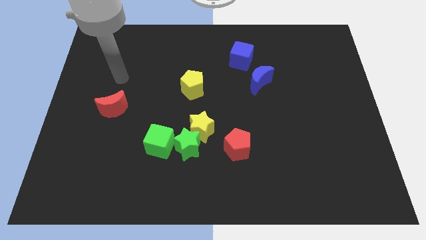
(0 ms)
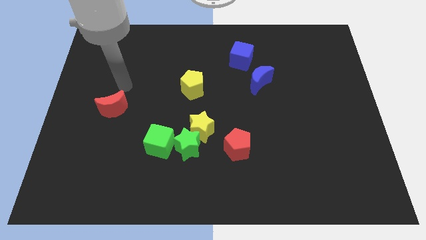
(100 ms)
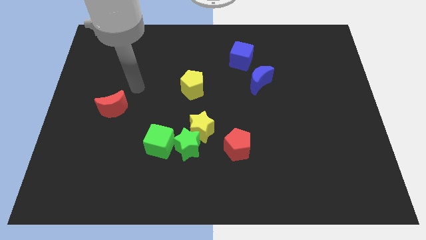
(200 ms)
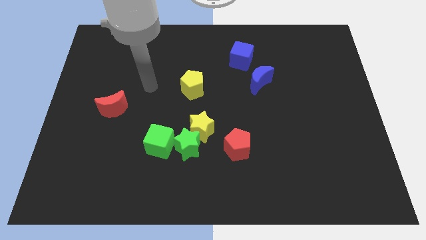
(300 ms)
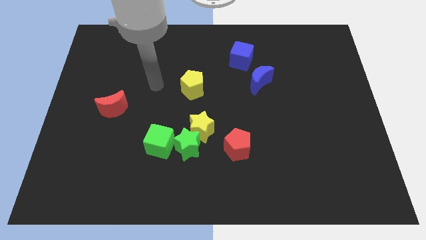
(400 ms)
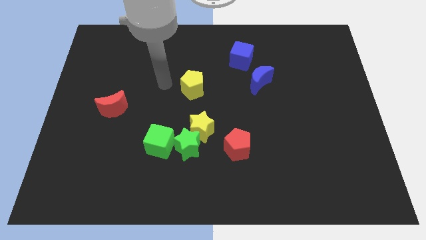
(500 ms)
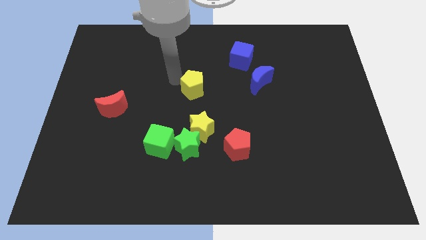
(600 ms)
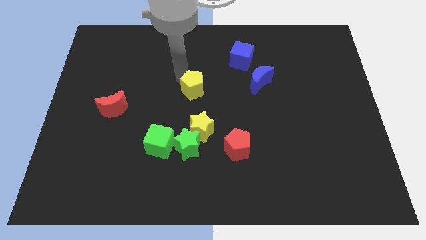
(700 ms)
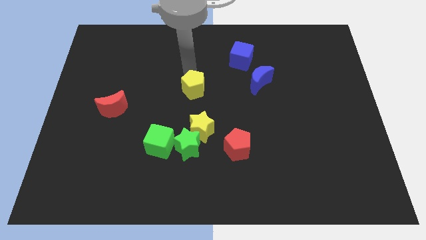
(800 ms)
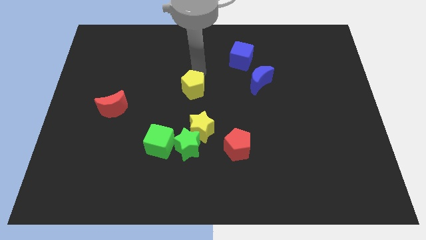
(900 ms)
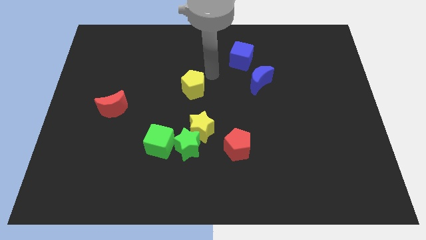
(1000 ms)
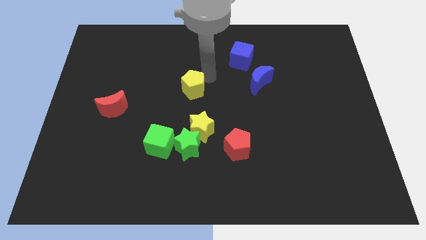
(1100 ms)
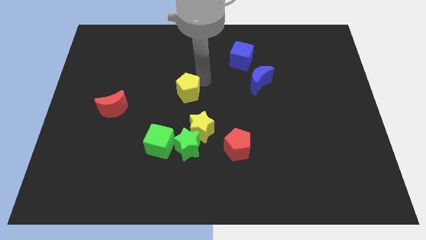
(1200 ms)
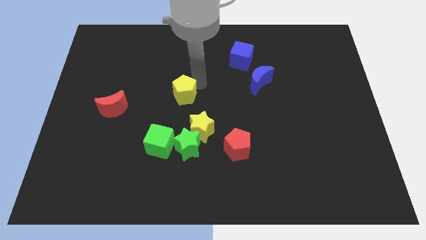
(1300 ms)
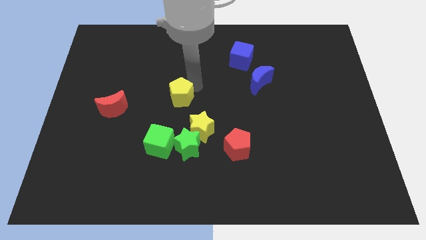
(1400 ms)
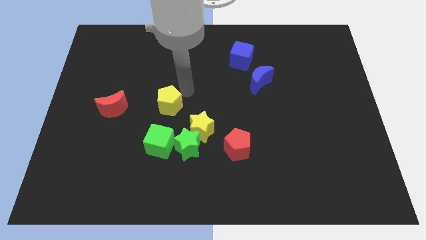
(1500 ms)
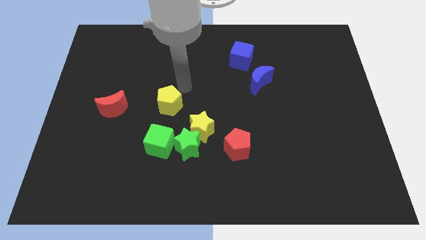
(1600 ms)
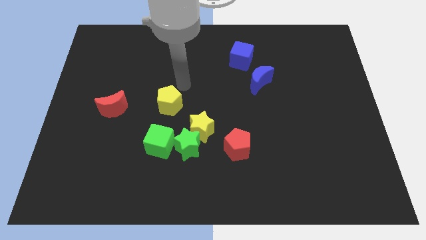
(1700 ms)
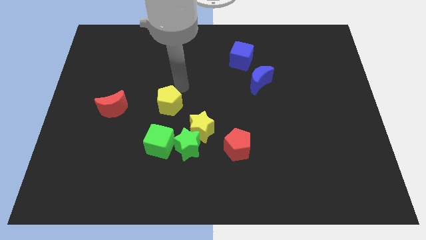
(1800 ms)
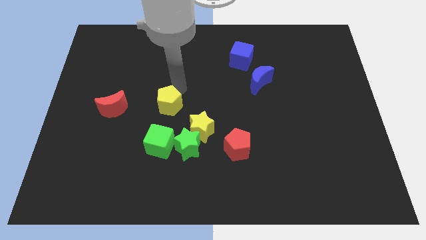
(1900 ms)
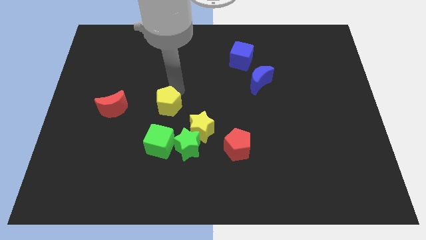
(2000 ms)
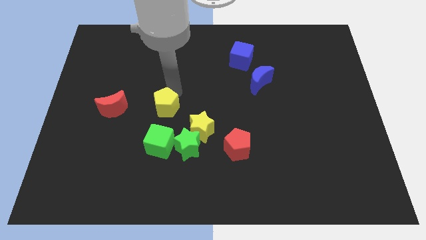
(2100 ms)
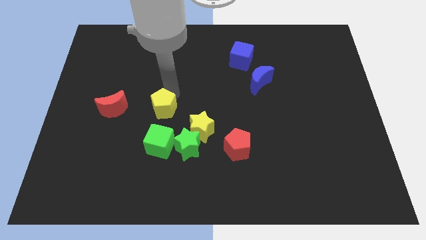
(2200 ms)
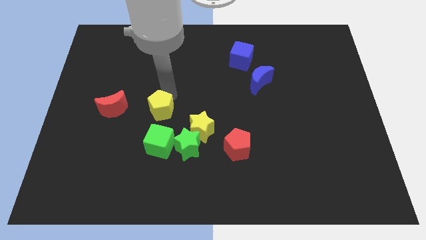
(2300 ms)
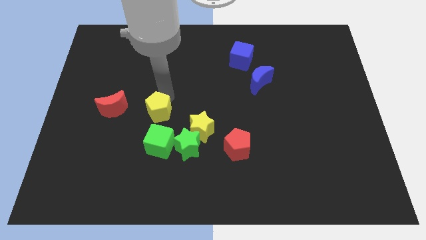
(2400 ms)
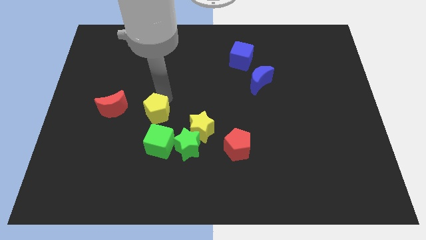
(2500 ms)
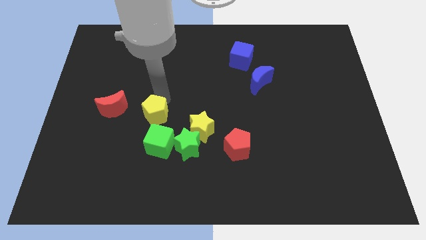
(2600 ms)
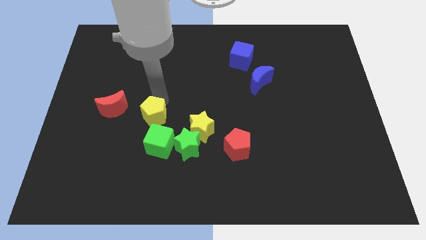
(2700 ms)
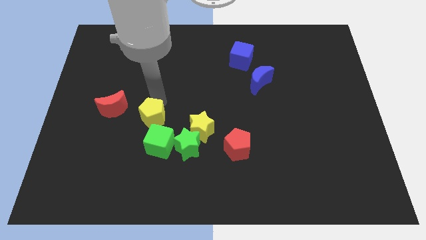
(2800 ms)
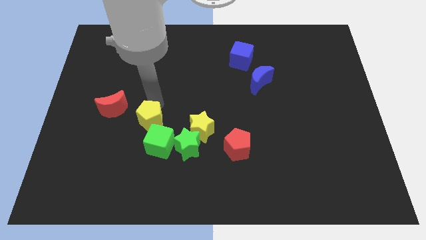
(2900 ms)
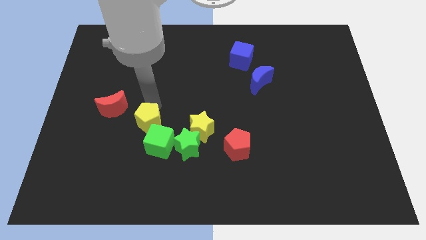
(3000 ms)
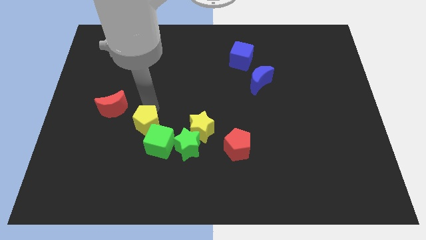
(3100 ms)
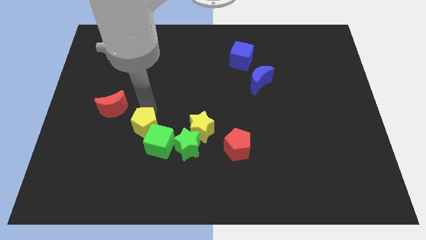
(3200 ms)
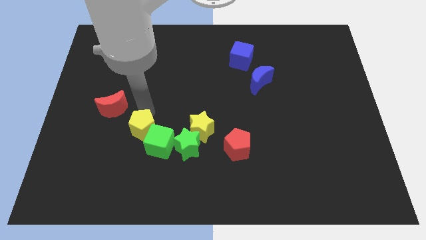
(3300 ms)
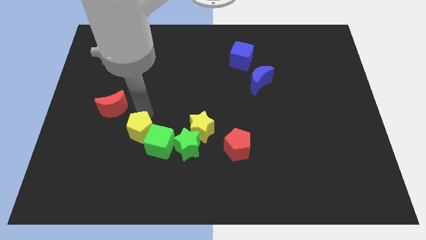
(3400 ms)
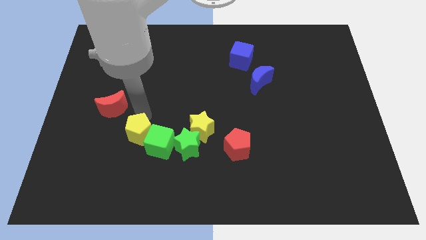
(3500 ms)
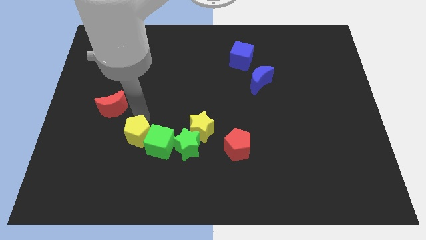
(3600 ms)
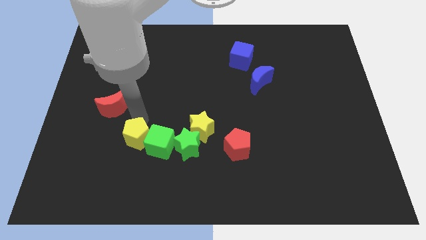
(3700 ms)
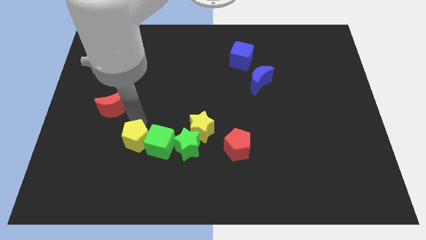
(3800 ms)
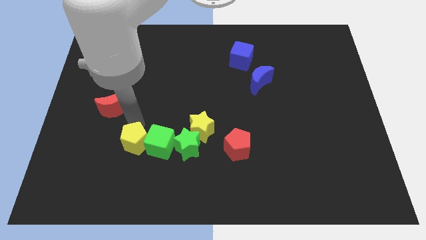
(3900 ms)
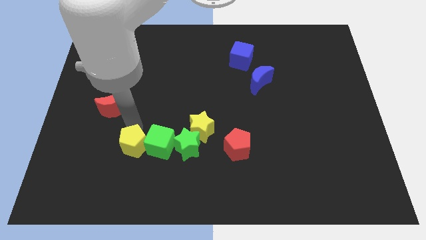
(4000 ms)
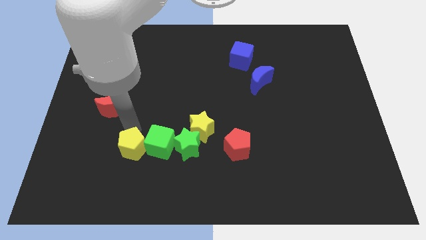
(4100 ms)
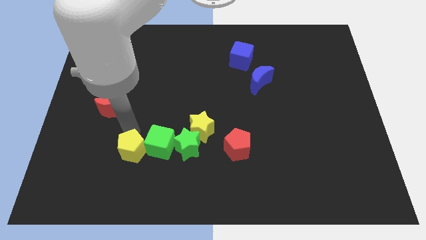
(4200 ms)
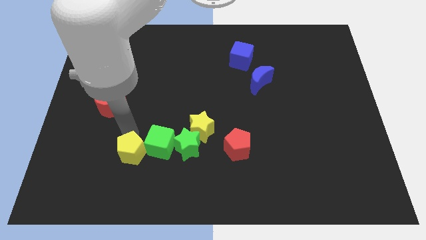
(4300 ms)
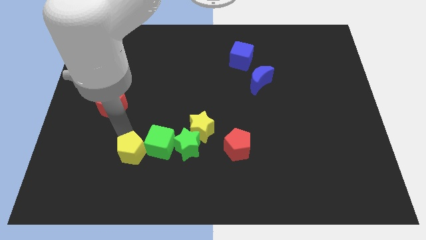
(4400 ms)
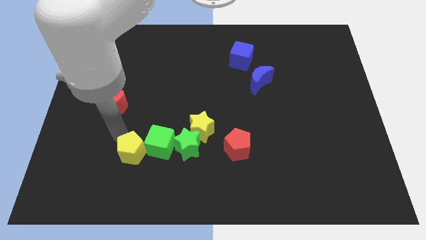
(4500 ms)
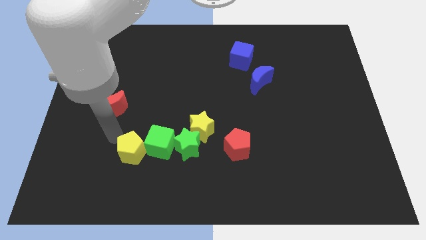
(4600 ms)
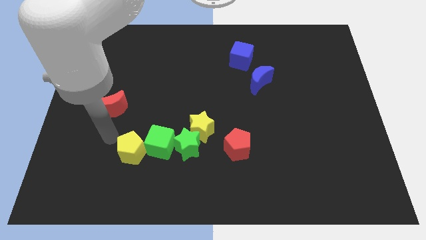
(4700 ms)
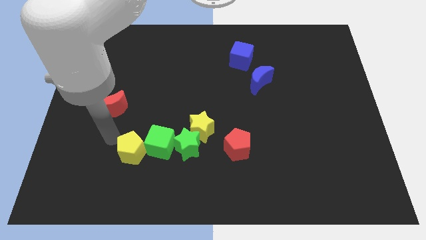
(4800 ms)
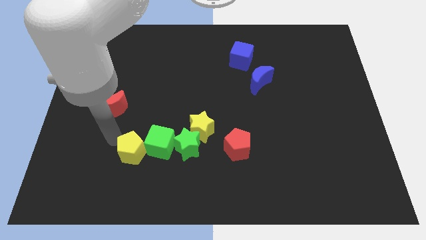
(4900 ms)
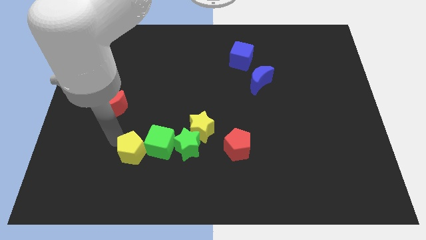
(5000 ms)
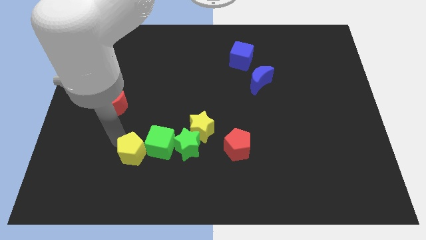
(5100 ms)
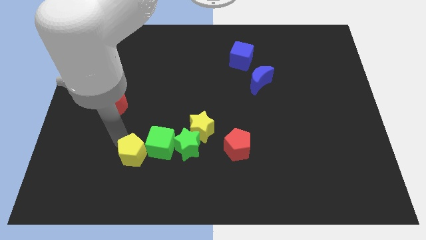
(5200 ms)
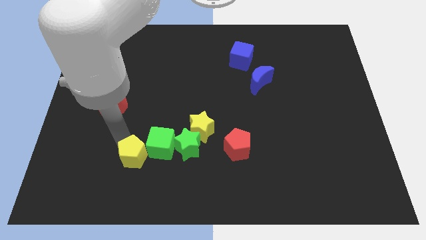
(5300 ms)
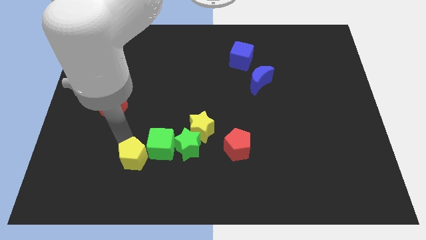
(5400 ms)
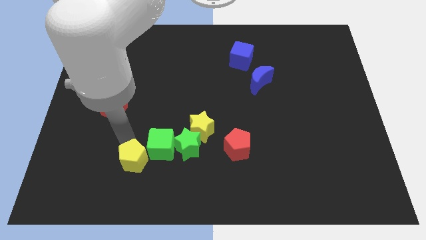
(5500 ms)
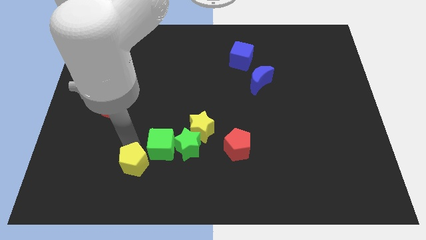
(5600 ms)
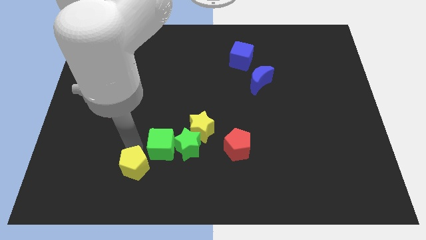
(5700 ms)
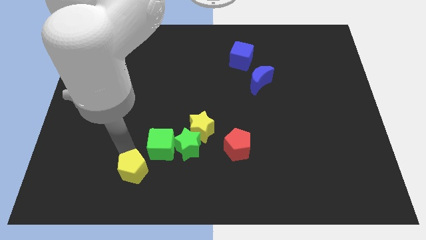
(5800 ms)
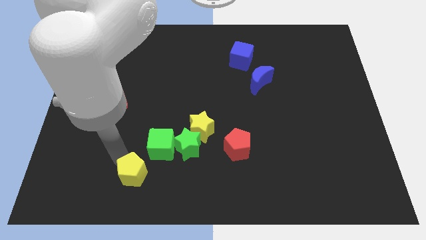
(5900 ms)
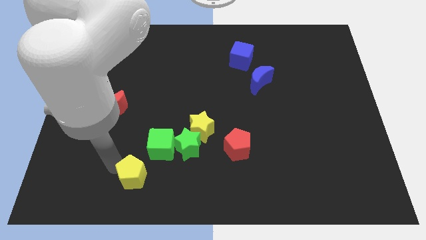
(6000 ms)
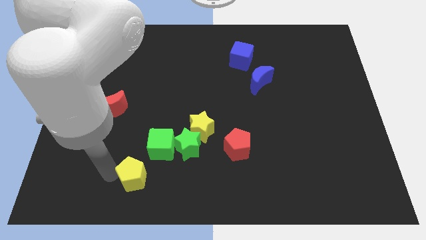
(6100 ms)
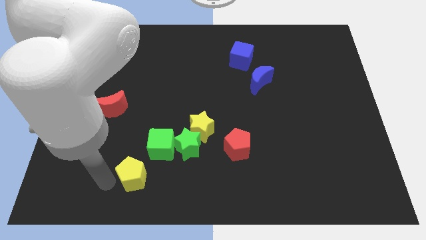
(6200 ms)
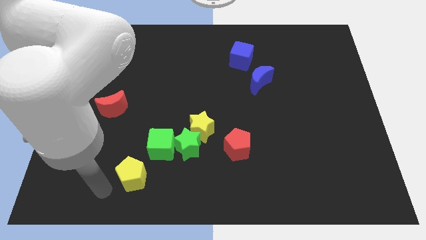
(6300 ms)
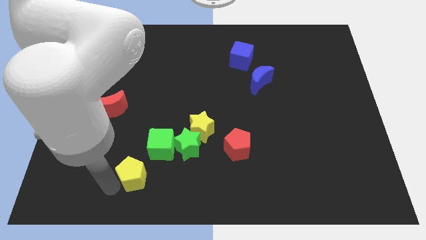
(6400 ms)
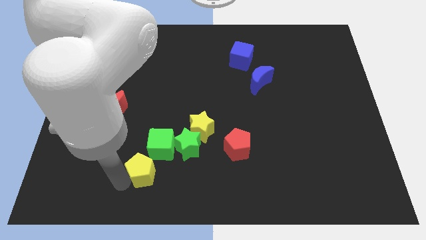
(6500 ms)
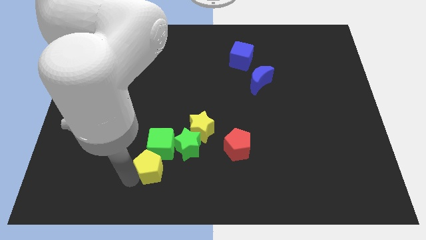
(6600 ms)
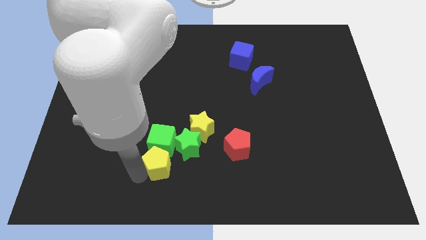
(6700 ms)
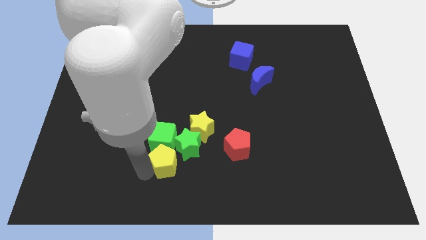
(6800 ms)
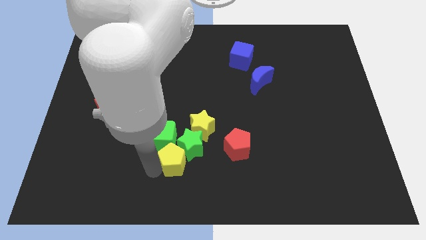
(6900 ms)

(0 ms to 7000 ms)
slide the yellow pentagon next to the green star
